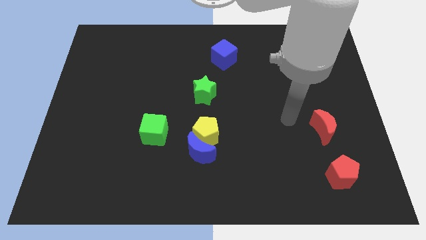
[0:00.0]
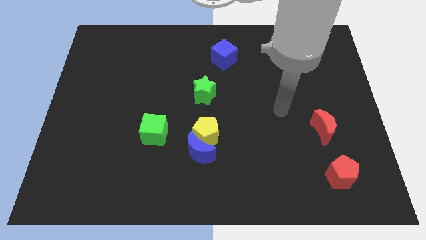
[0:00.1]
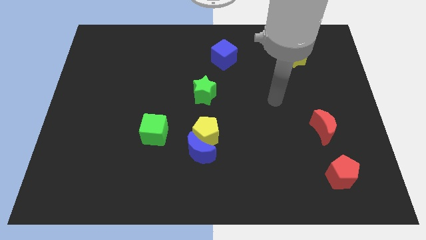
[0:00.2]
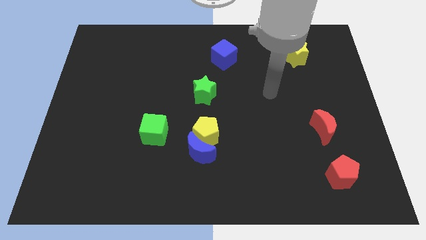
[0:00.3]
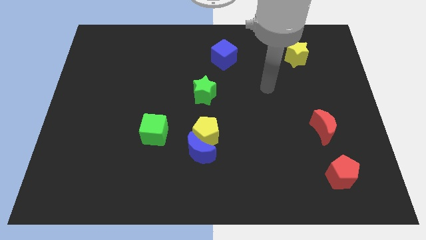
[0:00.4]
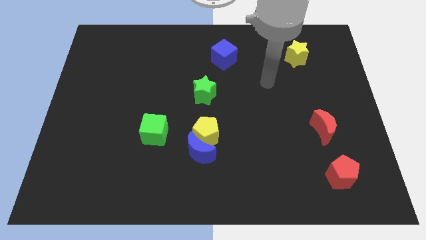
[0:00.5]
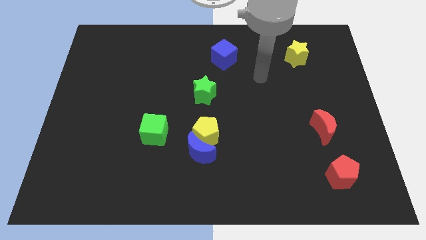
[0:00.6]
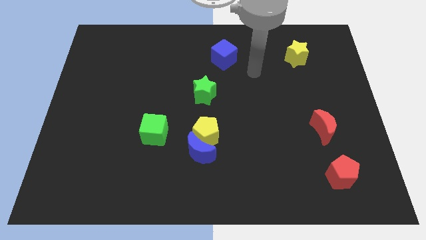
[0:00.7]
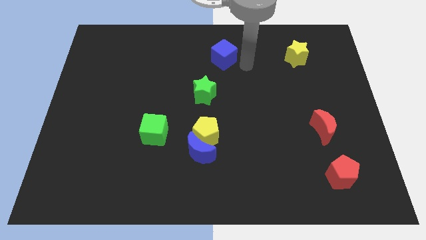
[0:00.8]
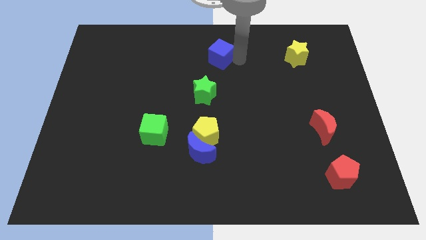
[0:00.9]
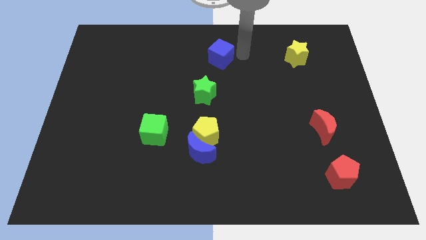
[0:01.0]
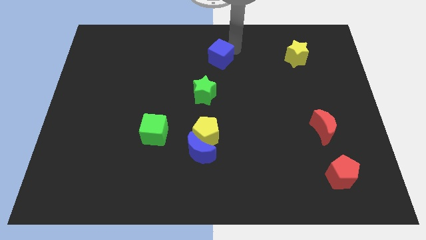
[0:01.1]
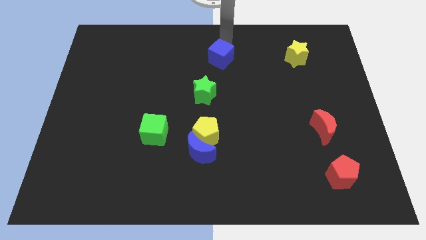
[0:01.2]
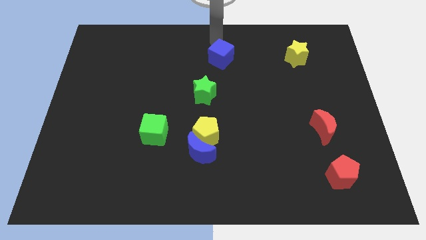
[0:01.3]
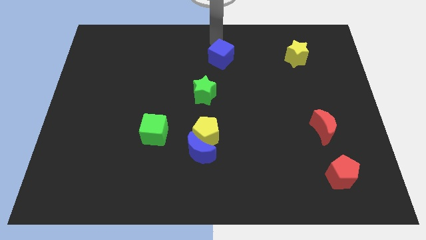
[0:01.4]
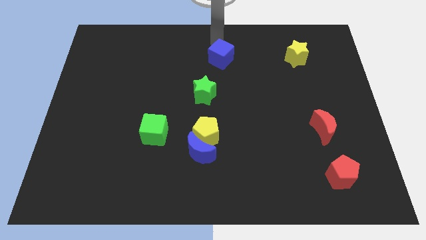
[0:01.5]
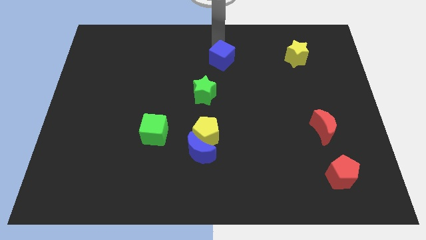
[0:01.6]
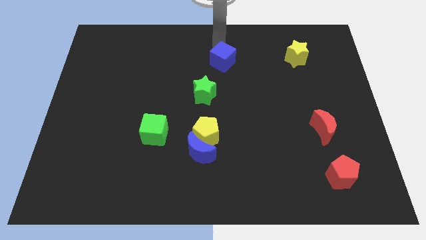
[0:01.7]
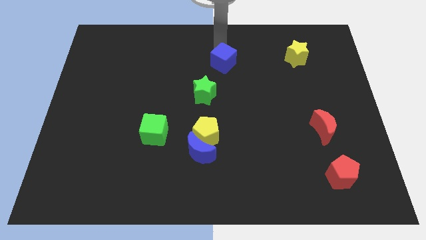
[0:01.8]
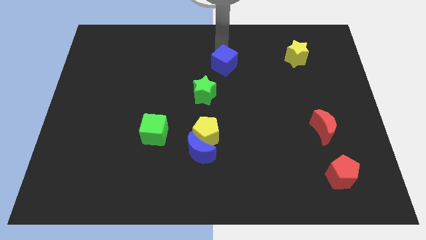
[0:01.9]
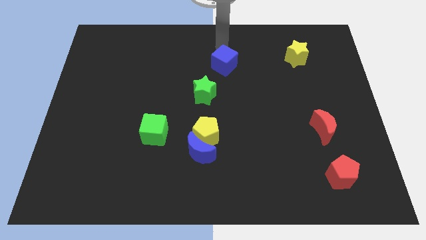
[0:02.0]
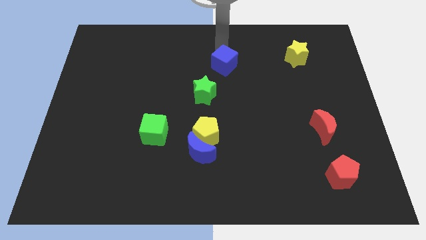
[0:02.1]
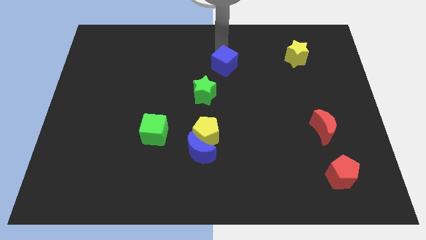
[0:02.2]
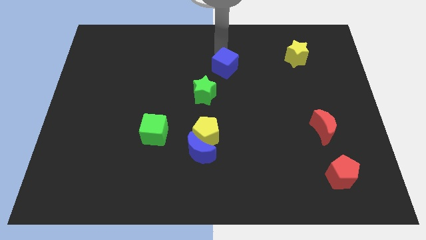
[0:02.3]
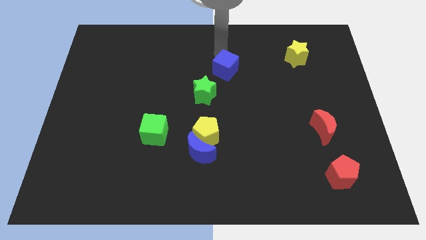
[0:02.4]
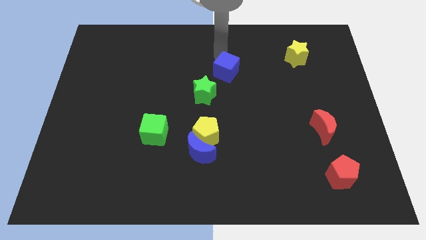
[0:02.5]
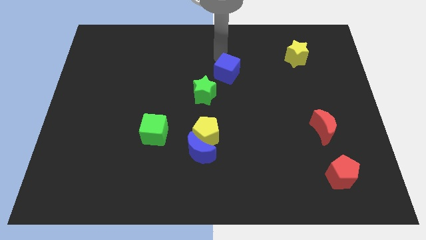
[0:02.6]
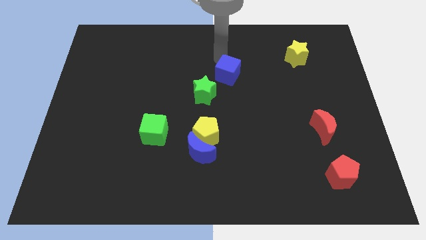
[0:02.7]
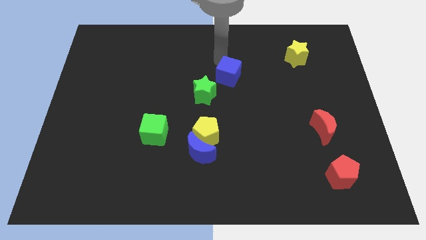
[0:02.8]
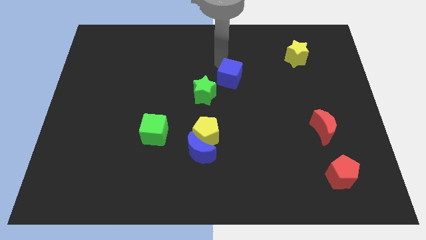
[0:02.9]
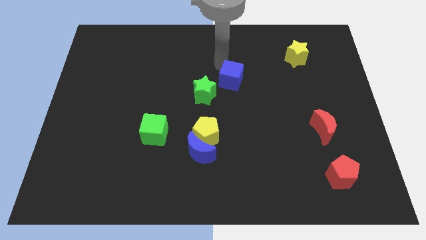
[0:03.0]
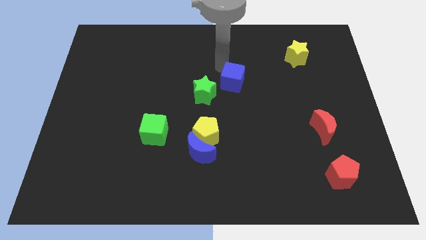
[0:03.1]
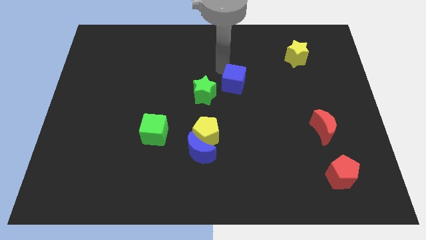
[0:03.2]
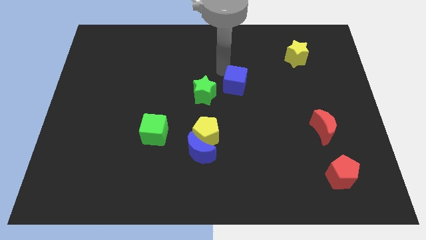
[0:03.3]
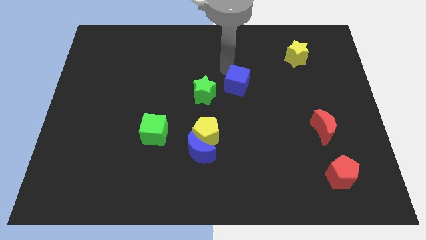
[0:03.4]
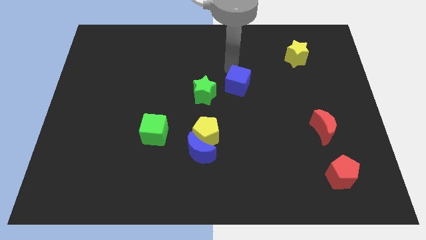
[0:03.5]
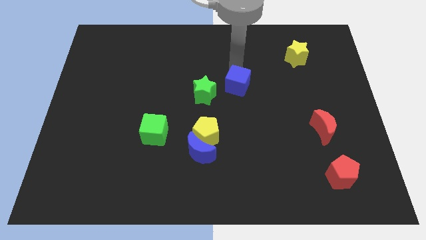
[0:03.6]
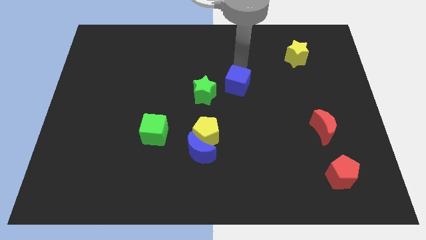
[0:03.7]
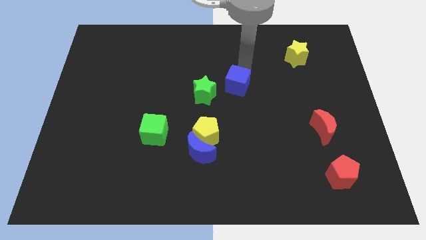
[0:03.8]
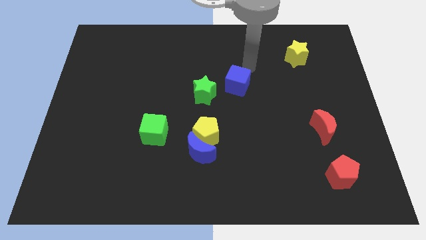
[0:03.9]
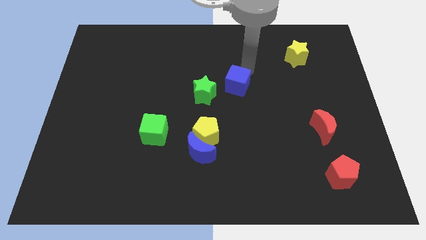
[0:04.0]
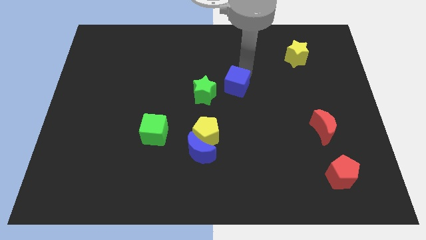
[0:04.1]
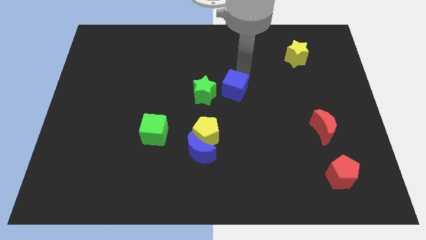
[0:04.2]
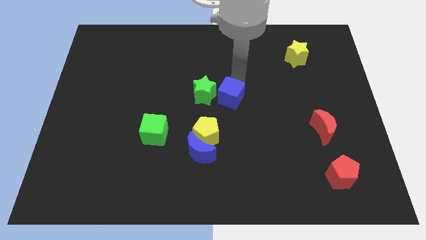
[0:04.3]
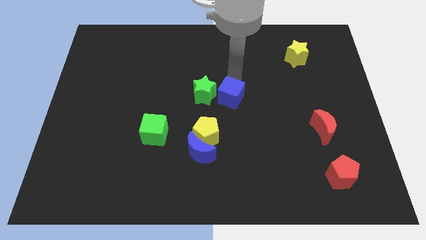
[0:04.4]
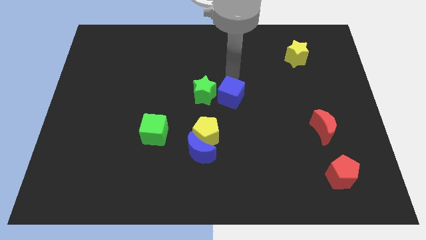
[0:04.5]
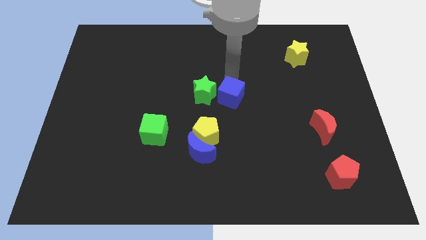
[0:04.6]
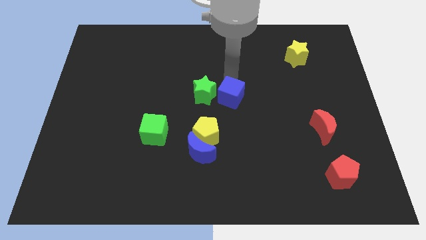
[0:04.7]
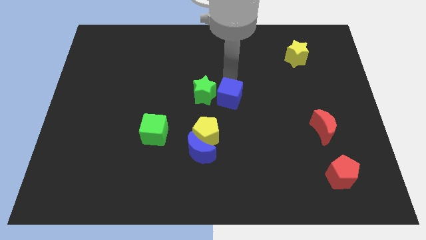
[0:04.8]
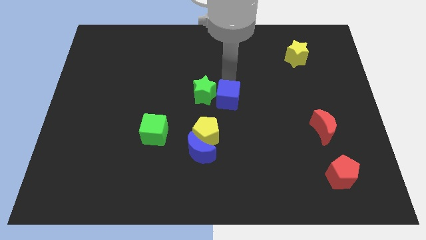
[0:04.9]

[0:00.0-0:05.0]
move the blue cube to the top right side of the yellow pentagon

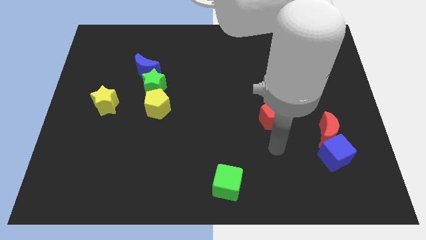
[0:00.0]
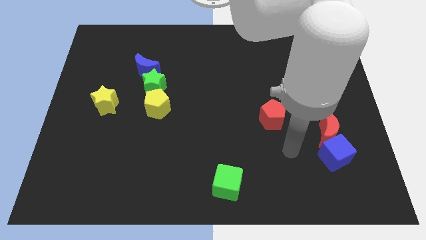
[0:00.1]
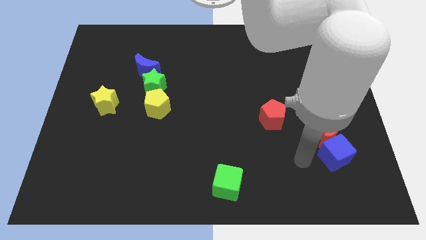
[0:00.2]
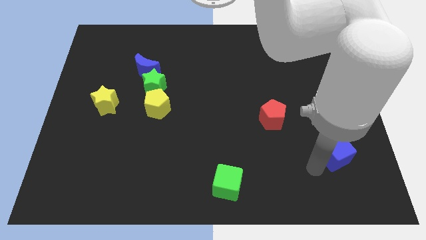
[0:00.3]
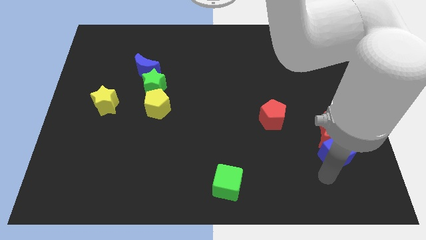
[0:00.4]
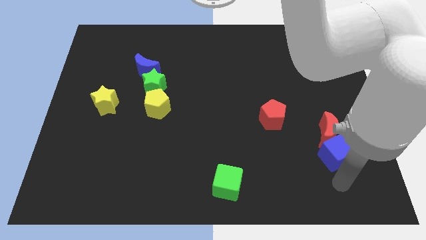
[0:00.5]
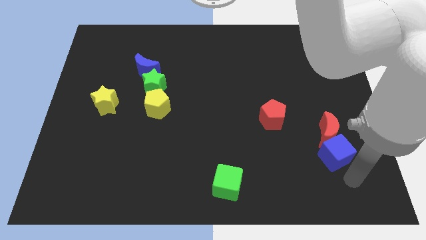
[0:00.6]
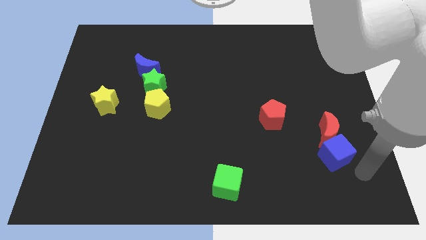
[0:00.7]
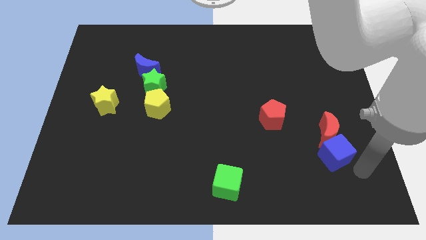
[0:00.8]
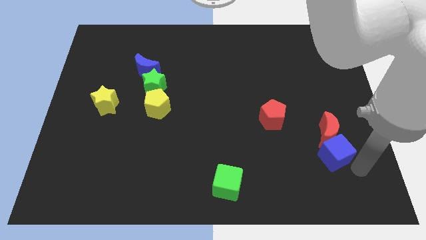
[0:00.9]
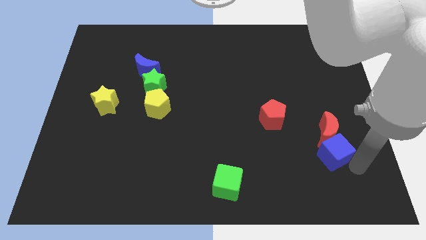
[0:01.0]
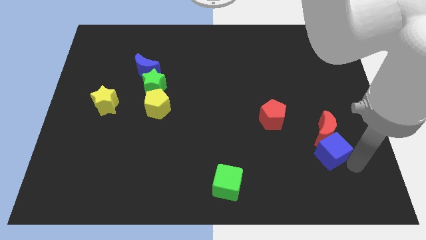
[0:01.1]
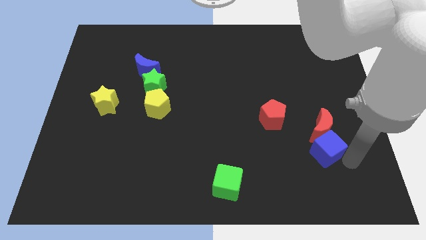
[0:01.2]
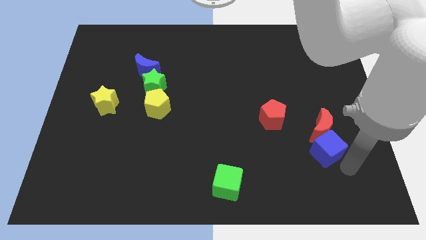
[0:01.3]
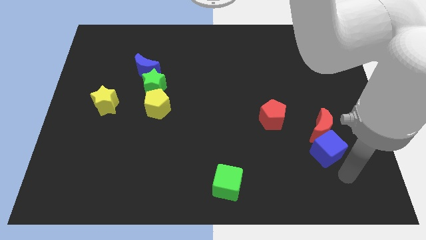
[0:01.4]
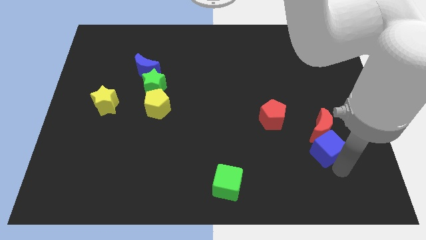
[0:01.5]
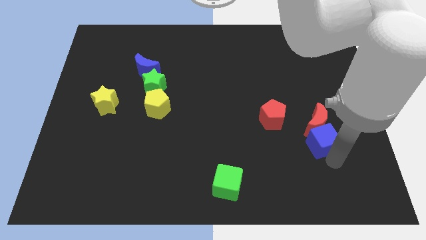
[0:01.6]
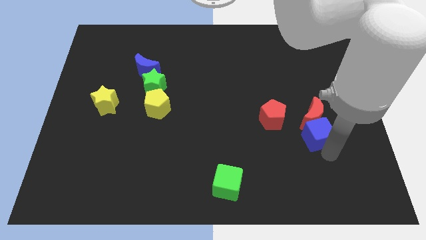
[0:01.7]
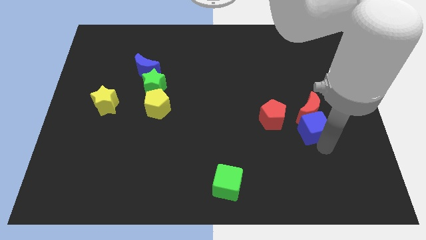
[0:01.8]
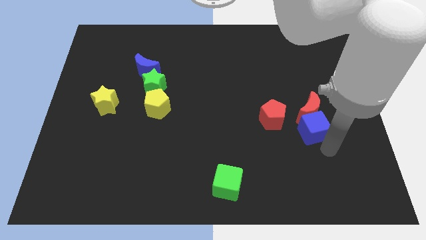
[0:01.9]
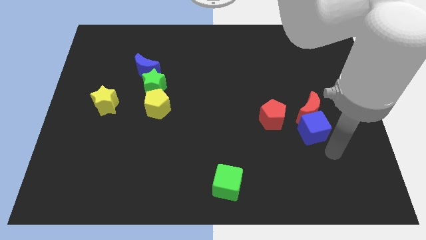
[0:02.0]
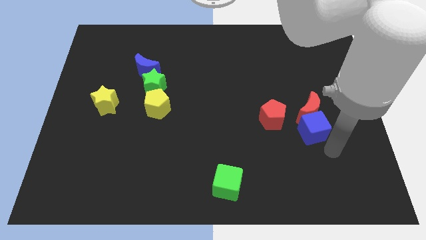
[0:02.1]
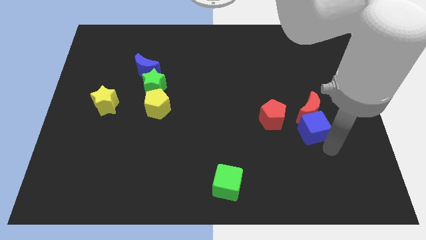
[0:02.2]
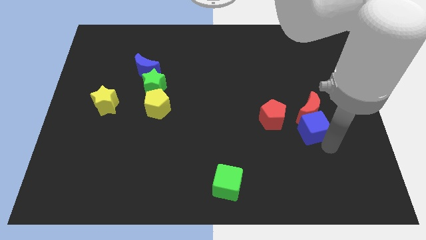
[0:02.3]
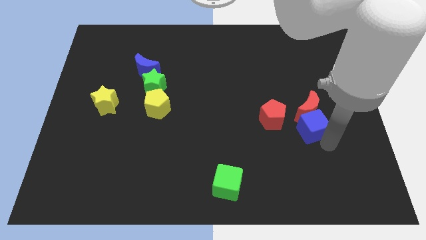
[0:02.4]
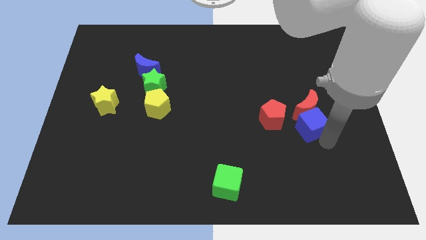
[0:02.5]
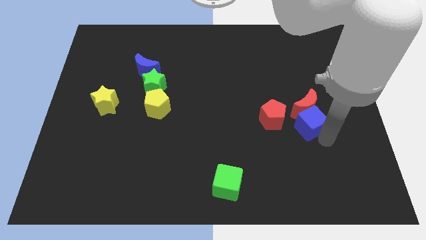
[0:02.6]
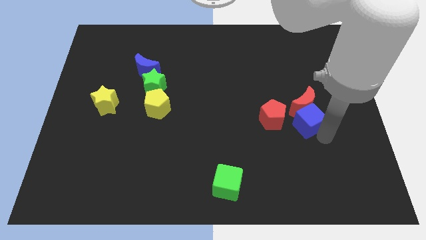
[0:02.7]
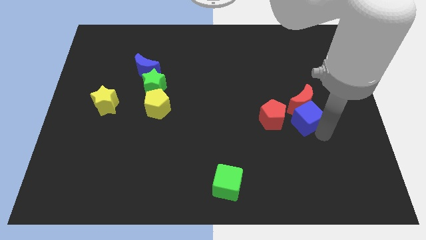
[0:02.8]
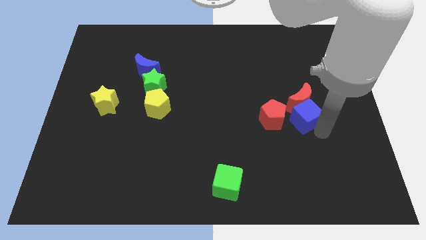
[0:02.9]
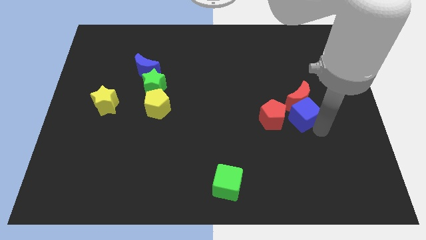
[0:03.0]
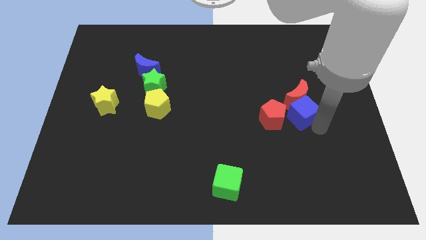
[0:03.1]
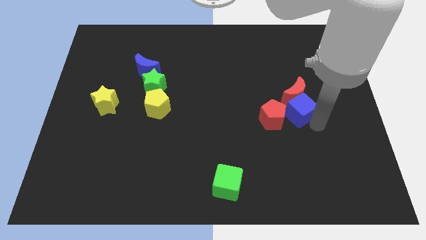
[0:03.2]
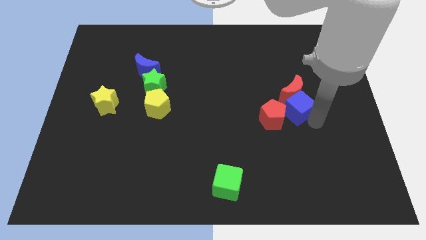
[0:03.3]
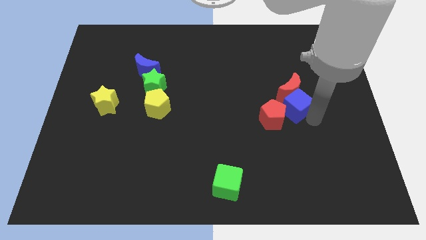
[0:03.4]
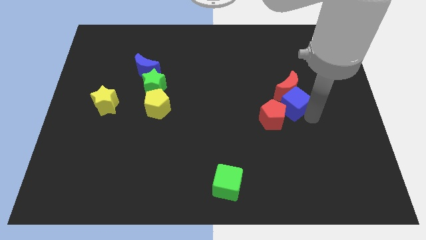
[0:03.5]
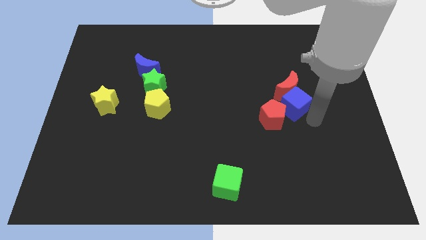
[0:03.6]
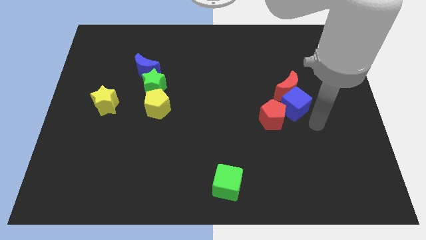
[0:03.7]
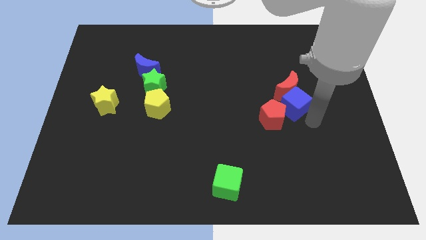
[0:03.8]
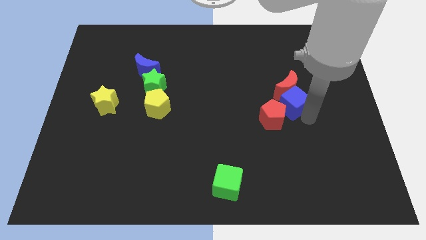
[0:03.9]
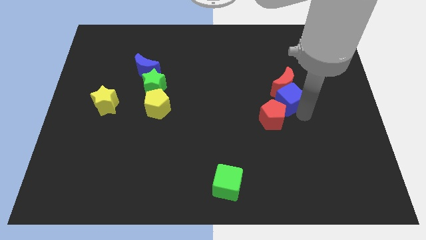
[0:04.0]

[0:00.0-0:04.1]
push the blue cube above the red pentagon
